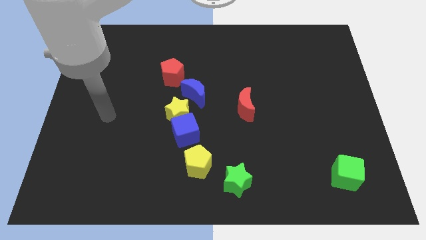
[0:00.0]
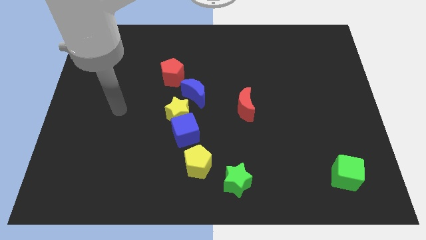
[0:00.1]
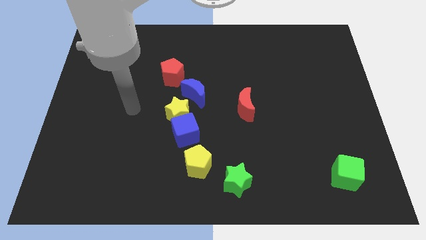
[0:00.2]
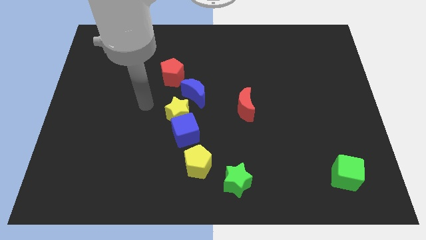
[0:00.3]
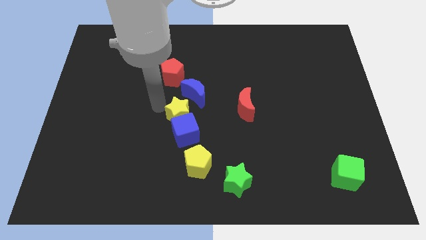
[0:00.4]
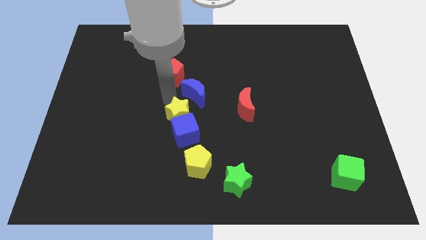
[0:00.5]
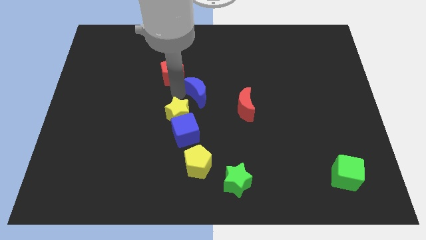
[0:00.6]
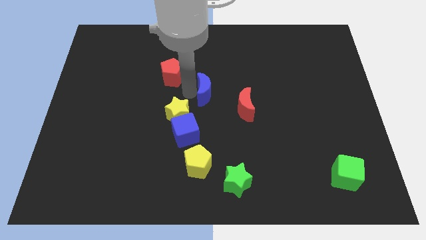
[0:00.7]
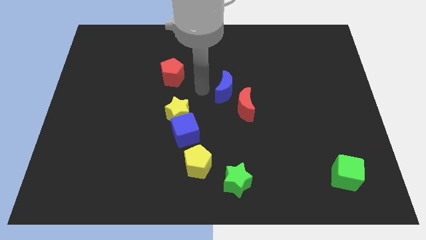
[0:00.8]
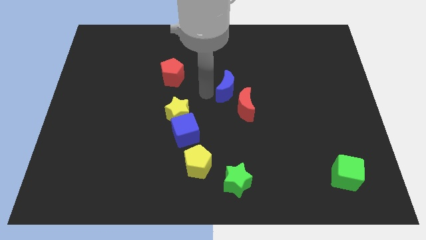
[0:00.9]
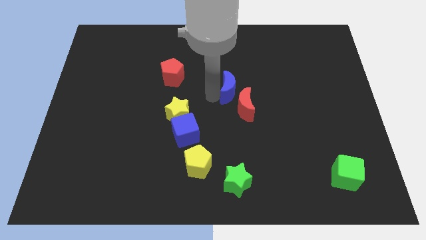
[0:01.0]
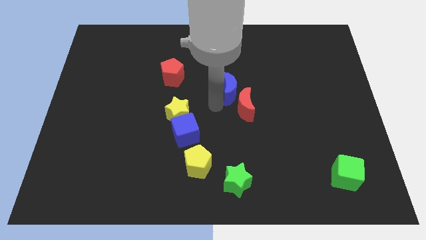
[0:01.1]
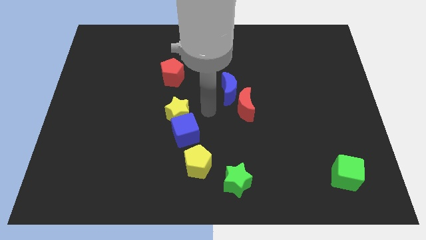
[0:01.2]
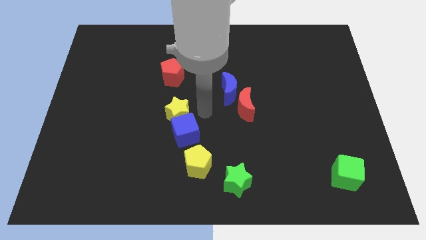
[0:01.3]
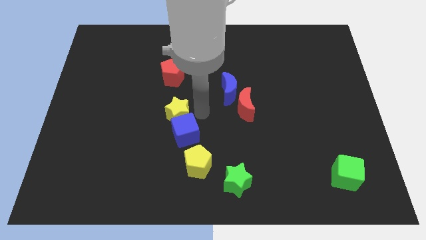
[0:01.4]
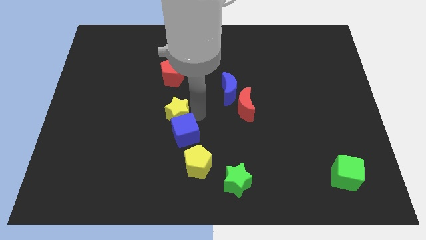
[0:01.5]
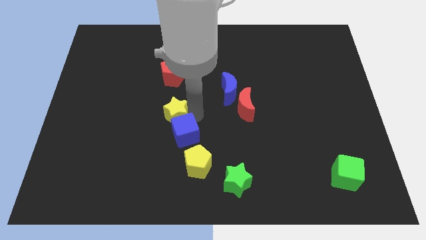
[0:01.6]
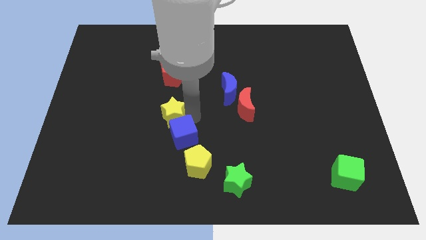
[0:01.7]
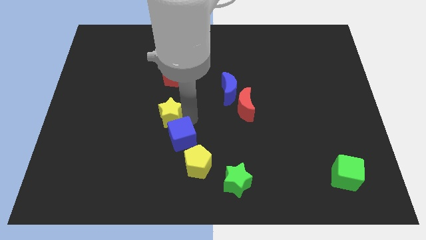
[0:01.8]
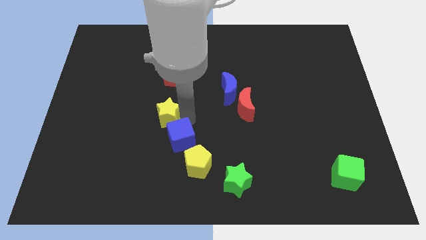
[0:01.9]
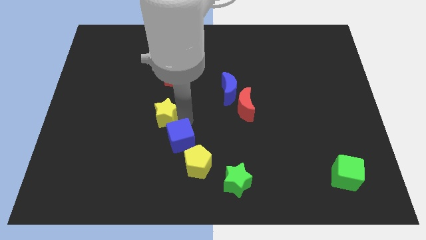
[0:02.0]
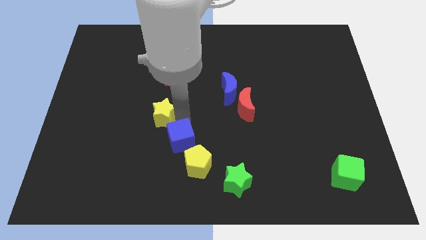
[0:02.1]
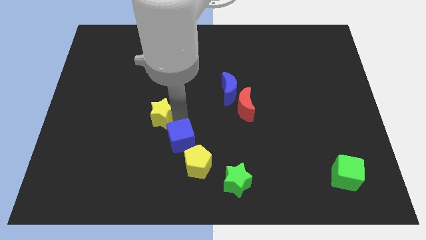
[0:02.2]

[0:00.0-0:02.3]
separate the yellow star from the blue cube and blue moon

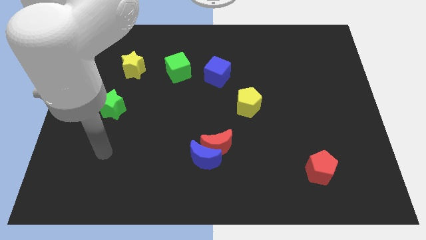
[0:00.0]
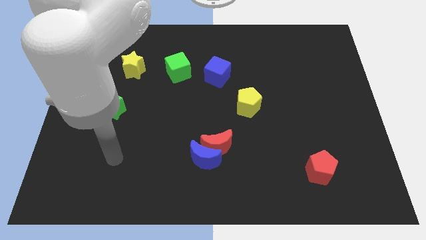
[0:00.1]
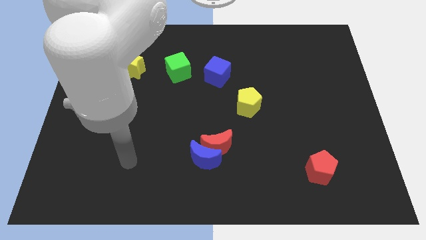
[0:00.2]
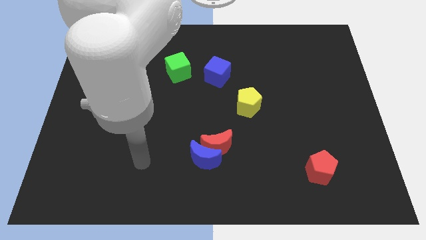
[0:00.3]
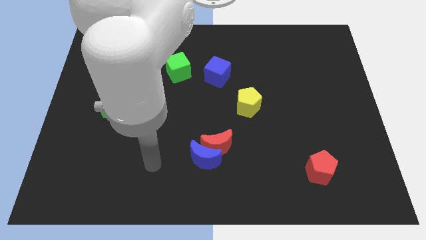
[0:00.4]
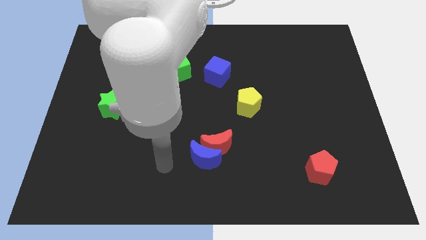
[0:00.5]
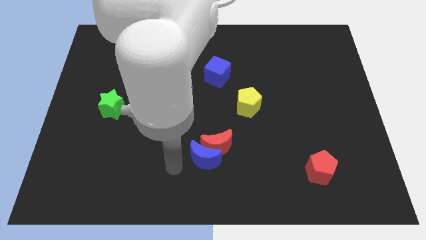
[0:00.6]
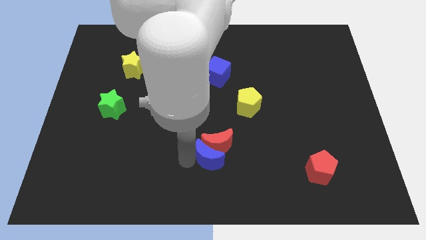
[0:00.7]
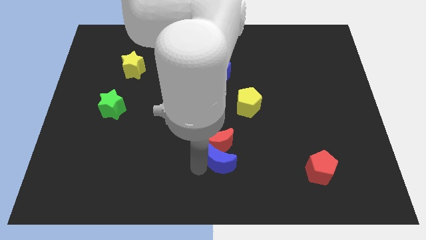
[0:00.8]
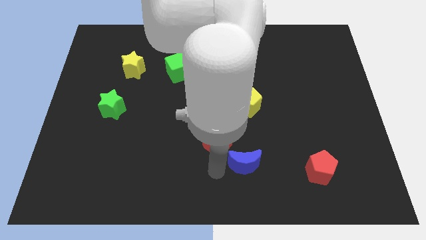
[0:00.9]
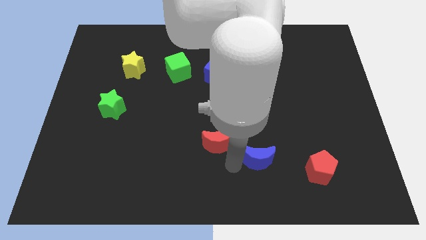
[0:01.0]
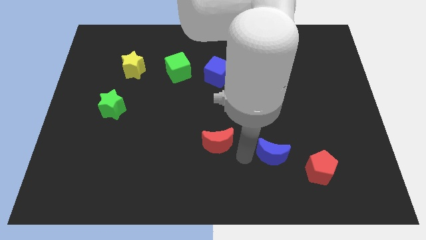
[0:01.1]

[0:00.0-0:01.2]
move the red moon away from the blue moon

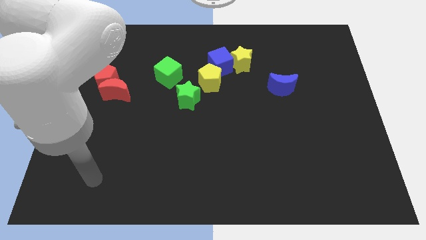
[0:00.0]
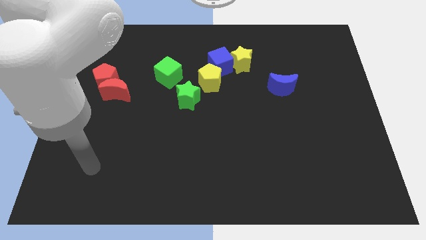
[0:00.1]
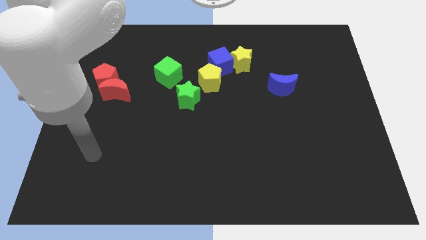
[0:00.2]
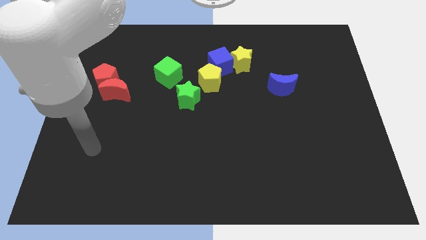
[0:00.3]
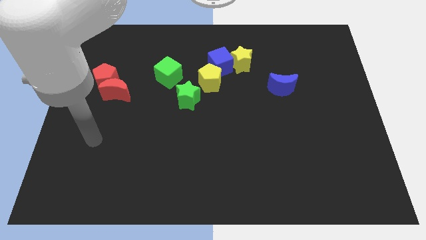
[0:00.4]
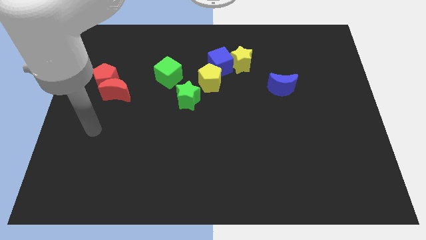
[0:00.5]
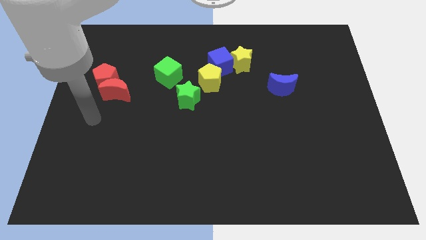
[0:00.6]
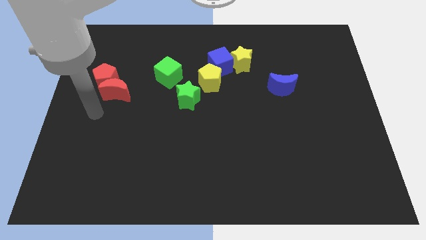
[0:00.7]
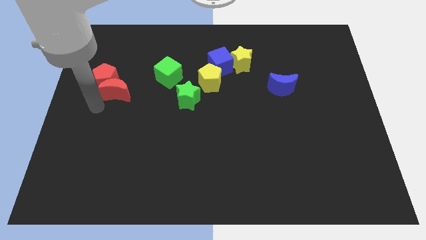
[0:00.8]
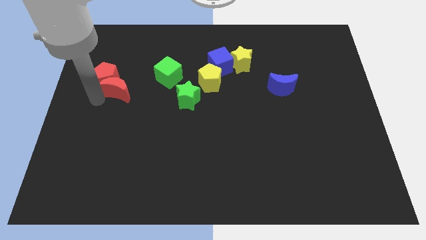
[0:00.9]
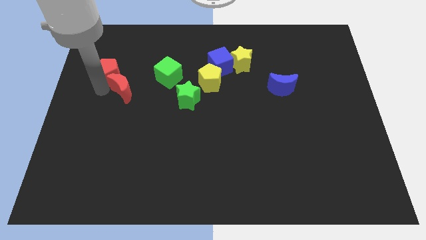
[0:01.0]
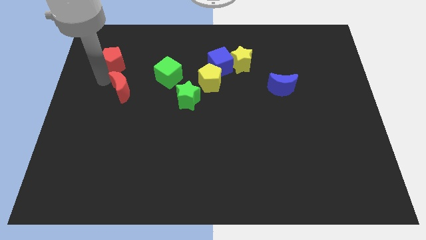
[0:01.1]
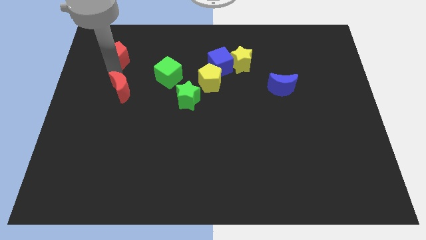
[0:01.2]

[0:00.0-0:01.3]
pull the red moon apart from the red pentagon

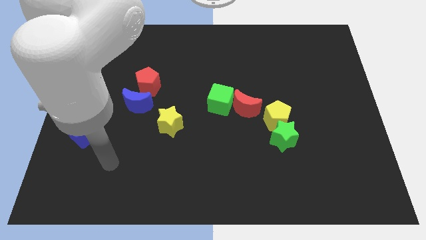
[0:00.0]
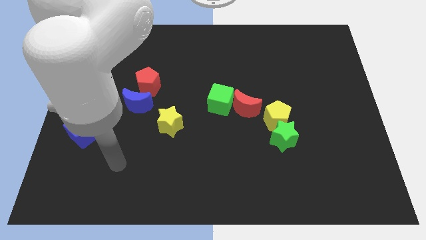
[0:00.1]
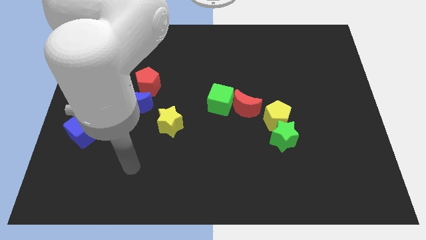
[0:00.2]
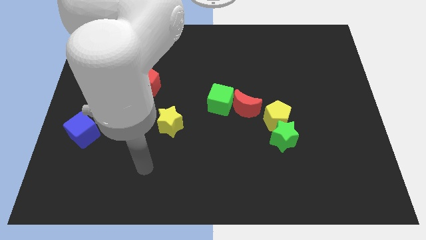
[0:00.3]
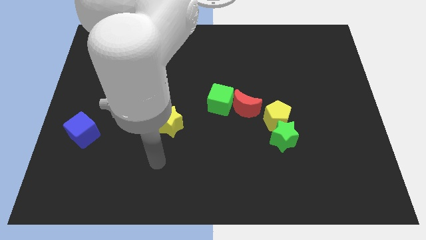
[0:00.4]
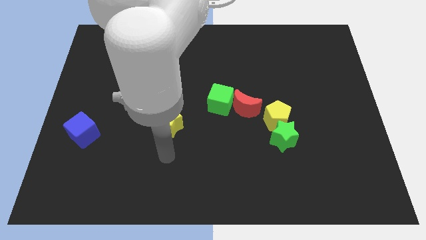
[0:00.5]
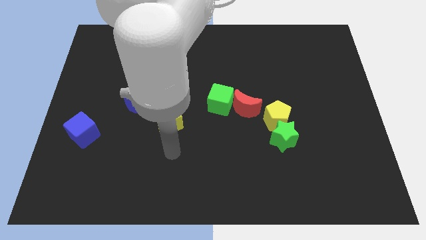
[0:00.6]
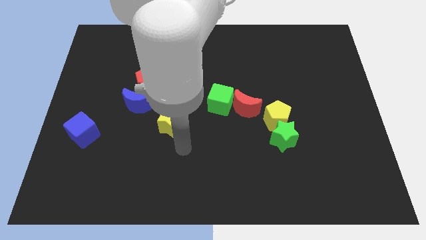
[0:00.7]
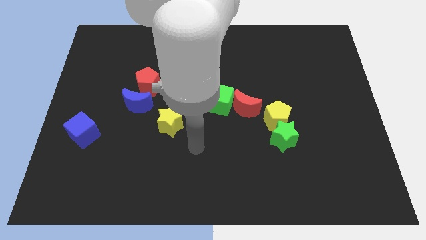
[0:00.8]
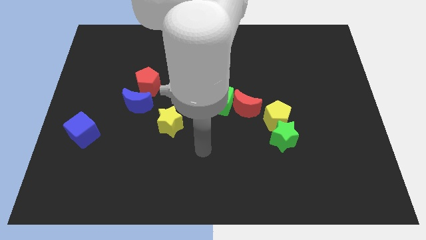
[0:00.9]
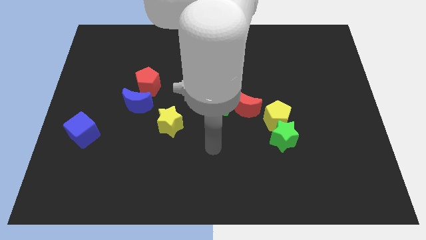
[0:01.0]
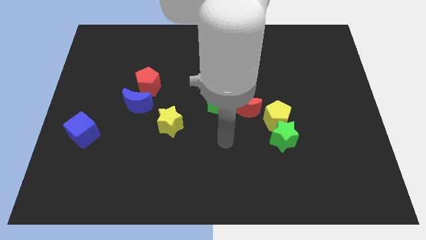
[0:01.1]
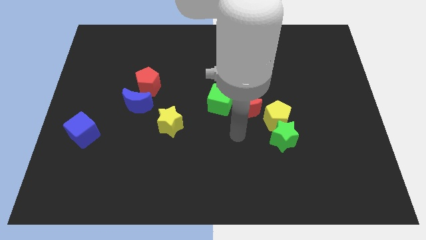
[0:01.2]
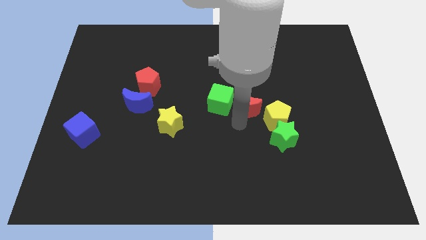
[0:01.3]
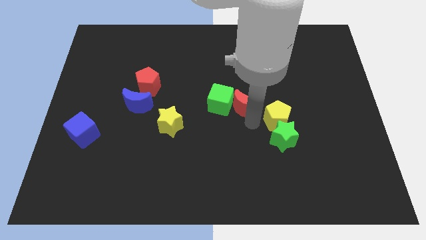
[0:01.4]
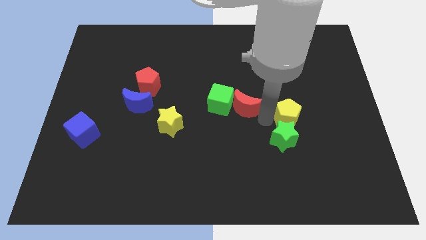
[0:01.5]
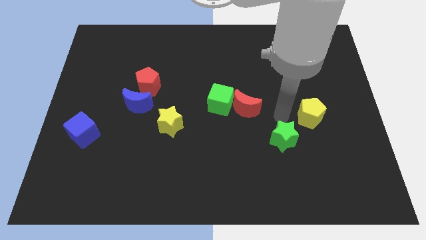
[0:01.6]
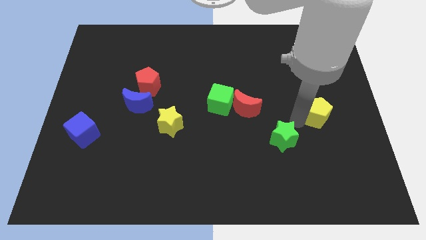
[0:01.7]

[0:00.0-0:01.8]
separate the green star from the yellow pentagon

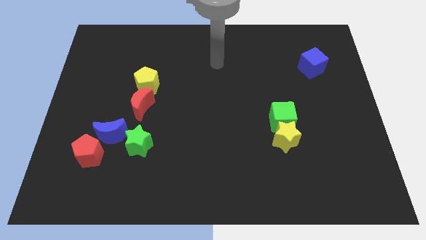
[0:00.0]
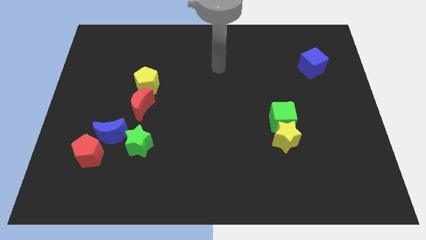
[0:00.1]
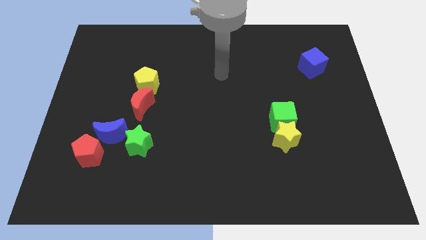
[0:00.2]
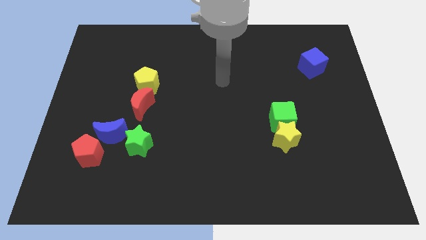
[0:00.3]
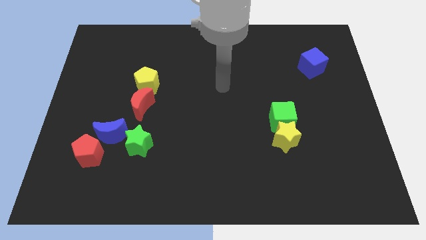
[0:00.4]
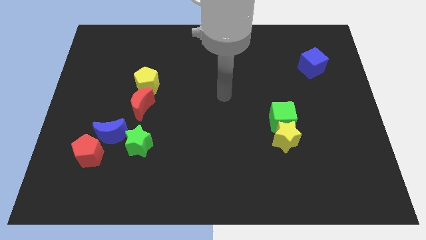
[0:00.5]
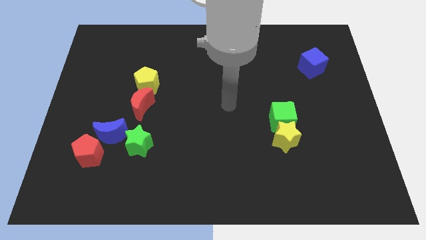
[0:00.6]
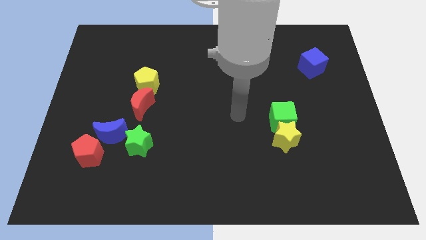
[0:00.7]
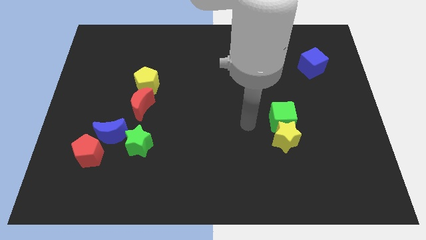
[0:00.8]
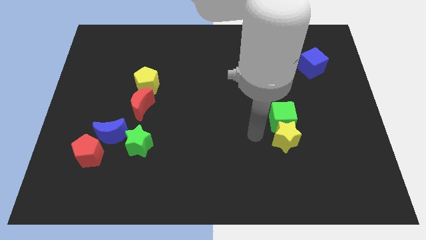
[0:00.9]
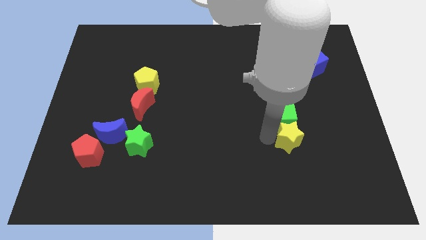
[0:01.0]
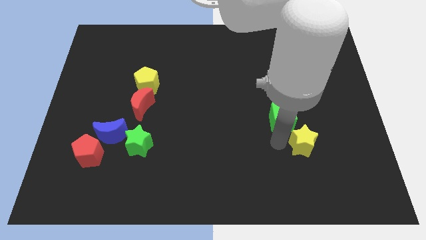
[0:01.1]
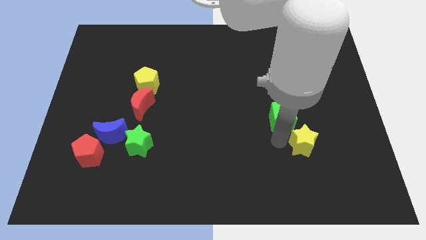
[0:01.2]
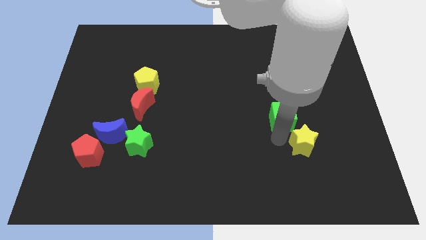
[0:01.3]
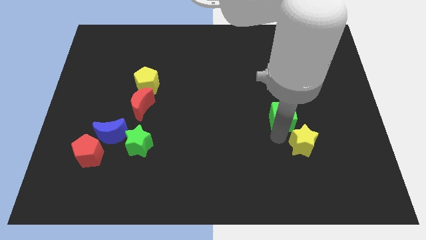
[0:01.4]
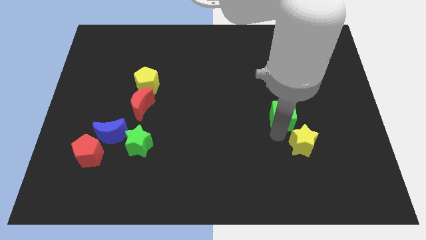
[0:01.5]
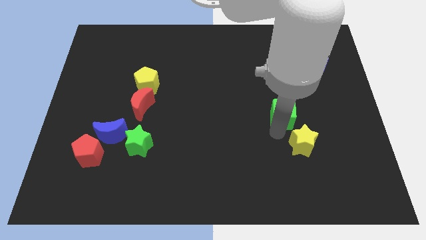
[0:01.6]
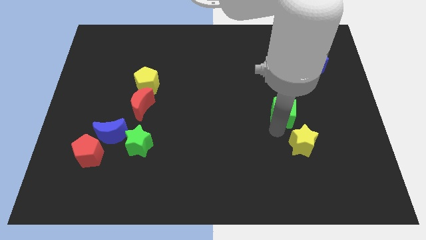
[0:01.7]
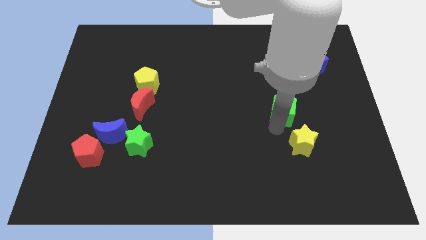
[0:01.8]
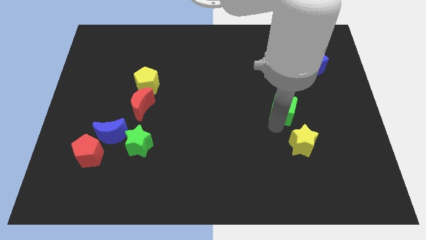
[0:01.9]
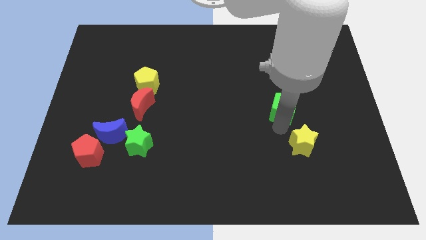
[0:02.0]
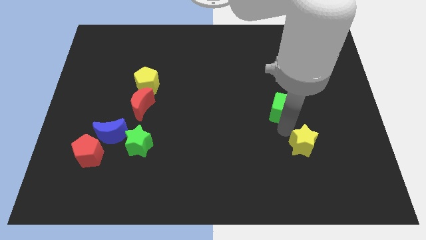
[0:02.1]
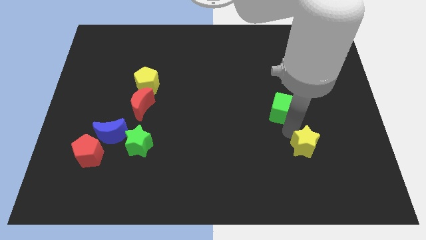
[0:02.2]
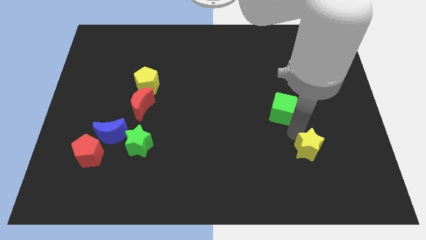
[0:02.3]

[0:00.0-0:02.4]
pull the green cube apart from the yellow star

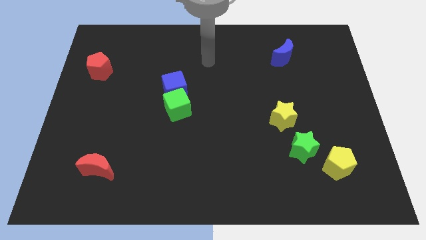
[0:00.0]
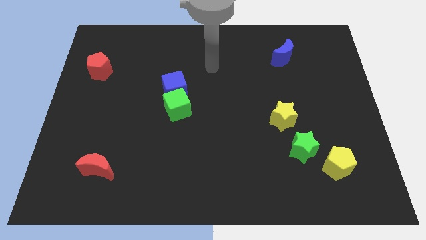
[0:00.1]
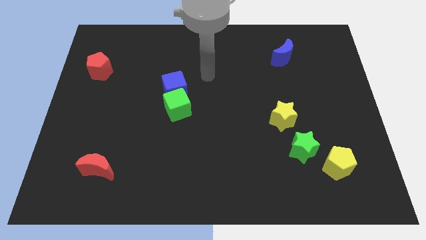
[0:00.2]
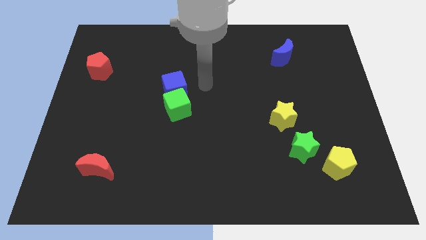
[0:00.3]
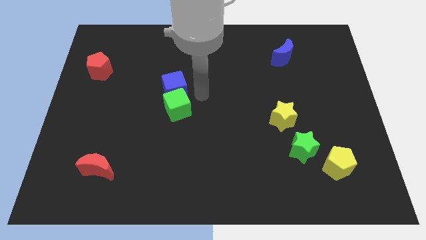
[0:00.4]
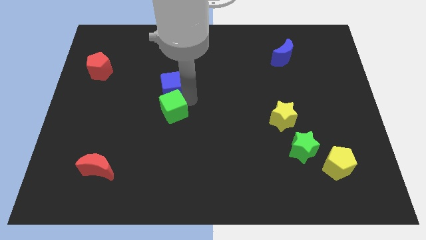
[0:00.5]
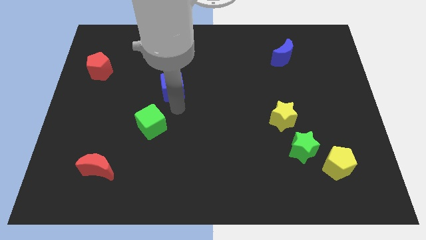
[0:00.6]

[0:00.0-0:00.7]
move the blue cube away from the green cube
